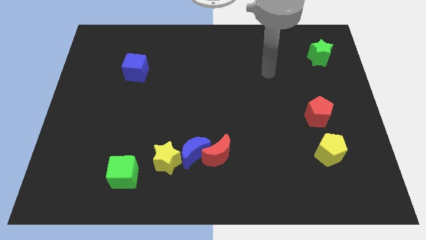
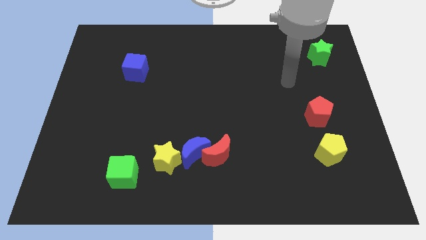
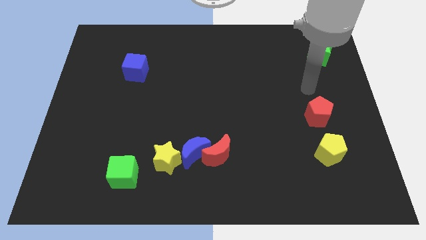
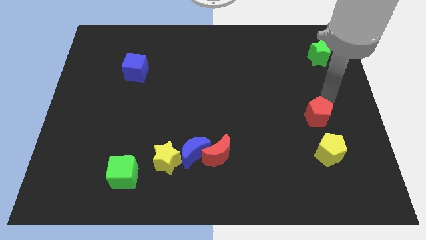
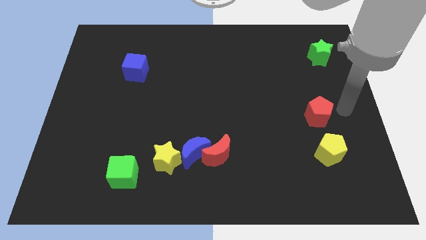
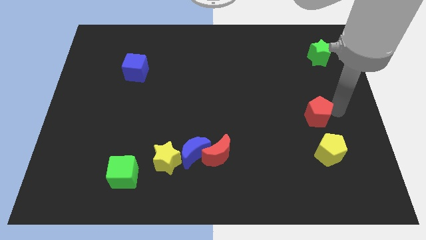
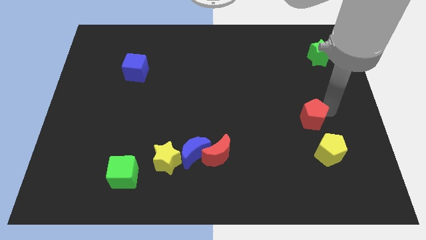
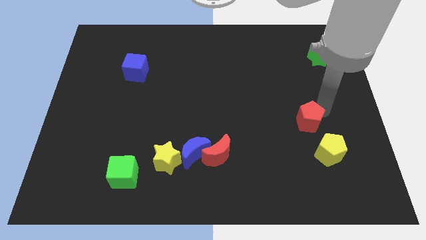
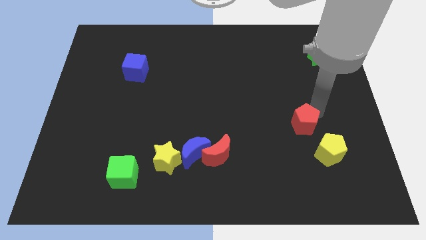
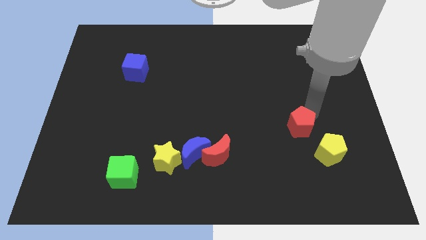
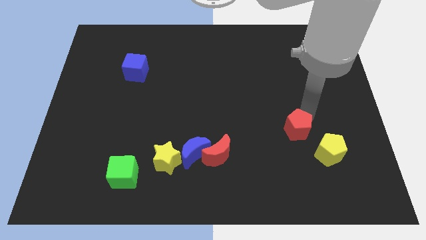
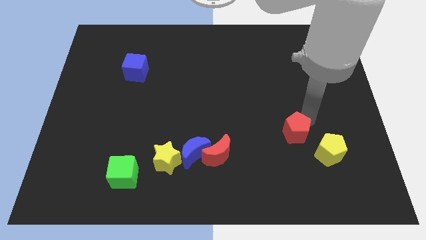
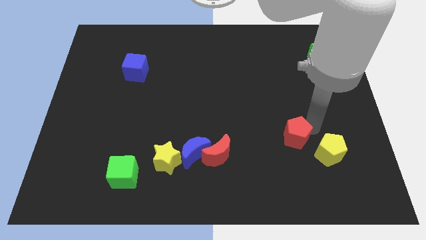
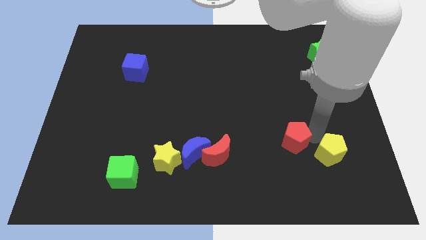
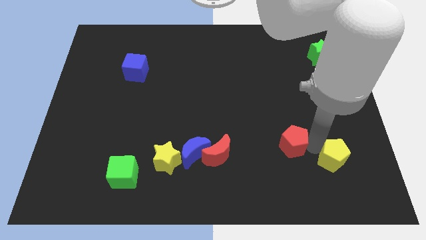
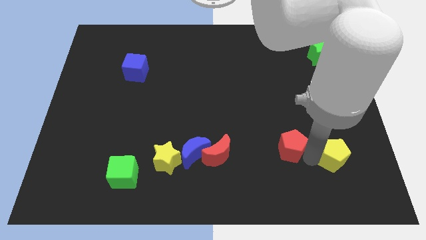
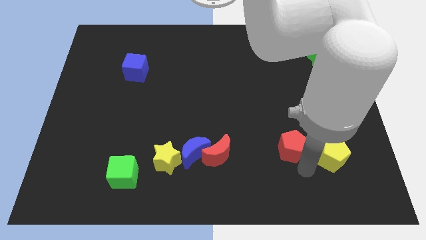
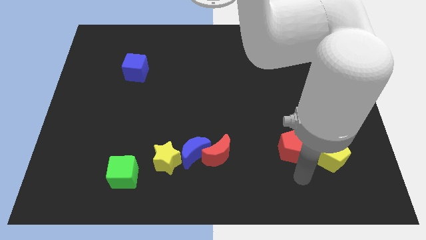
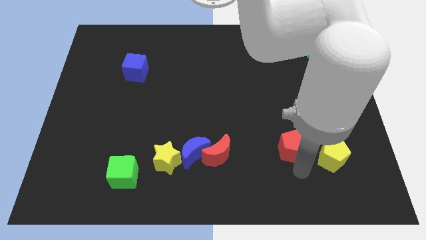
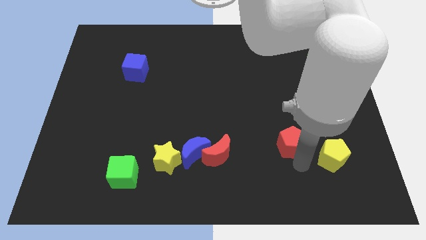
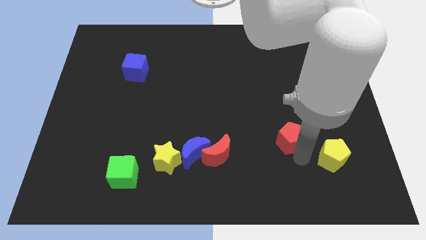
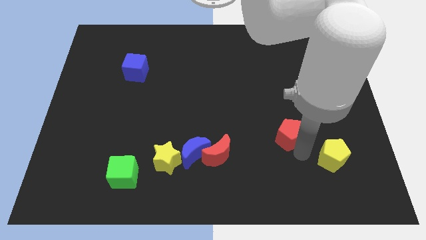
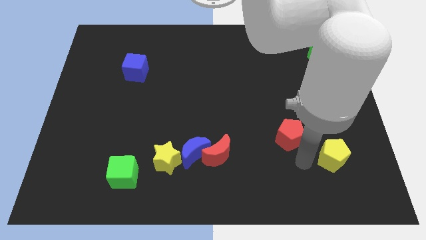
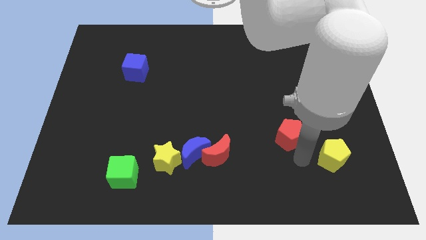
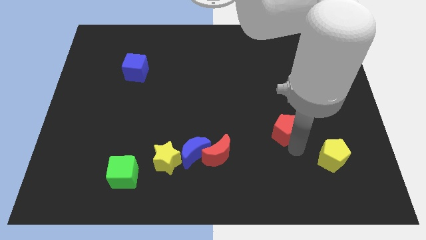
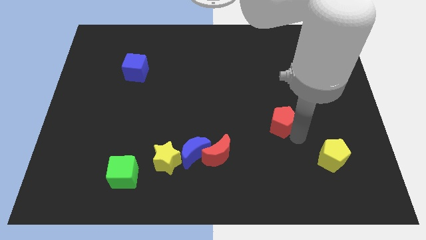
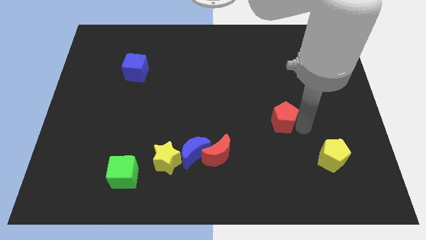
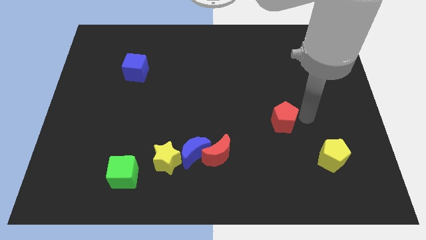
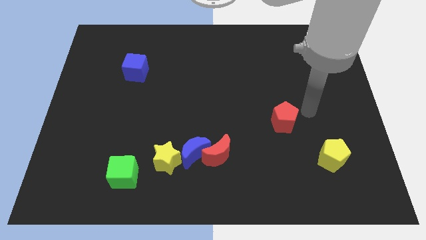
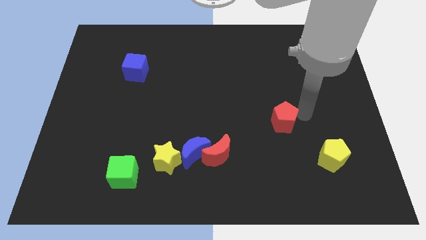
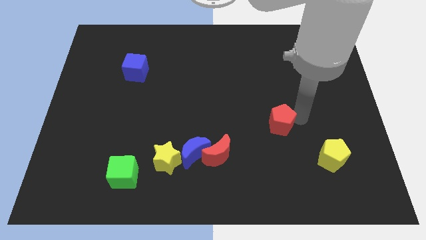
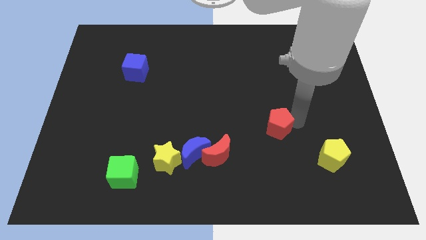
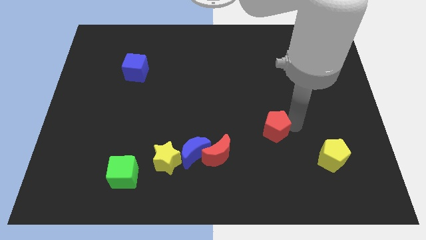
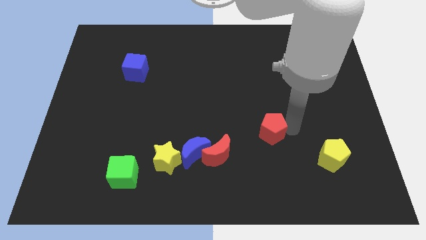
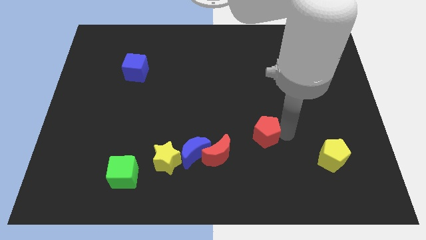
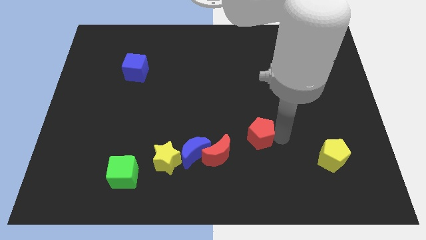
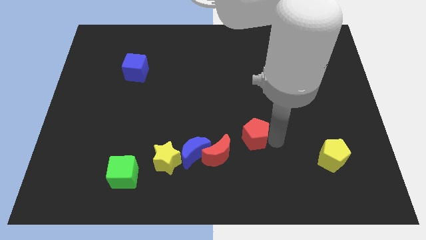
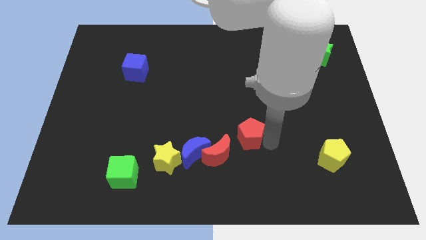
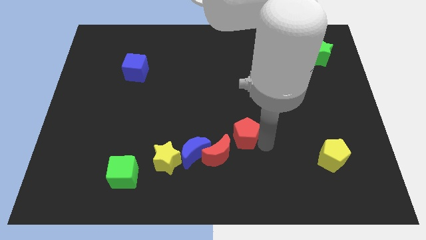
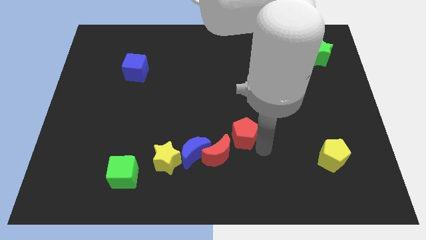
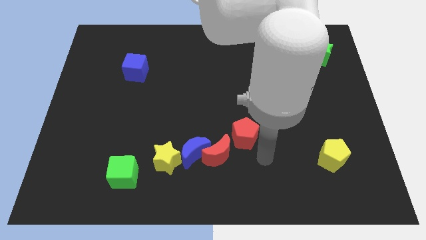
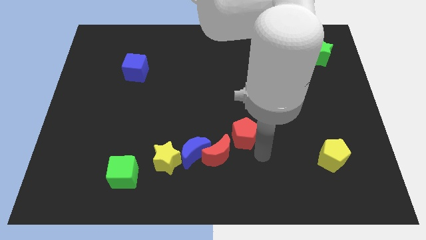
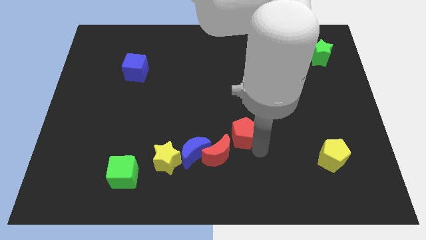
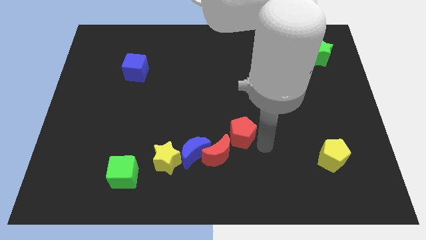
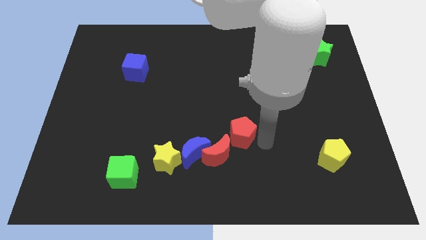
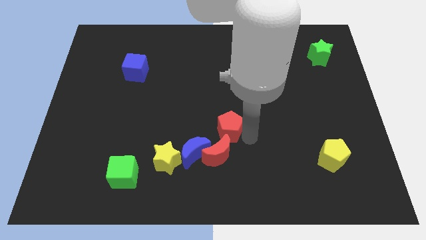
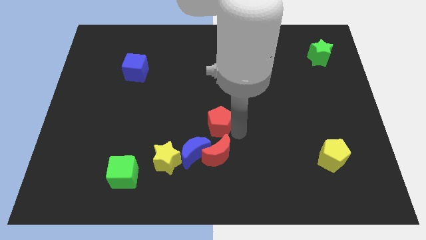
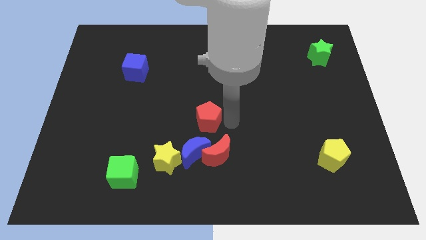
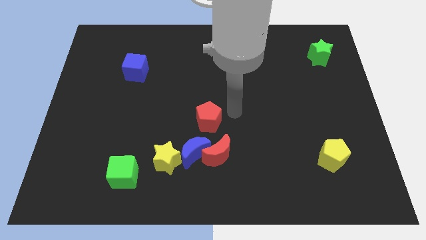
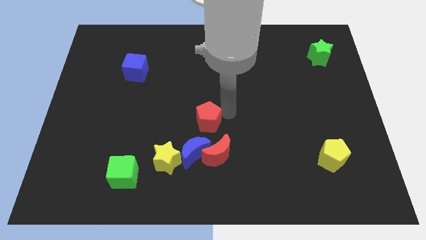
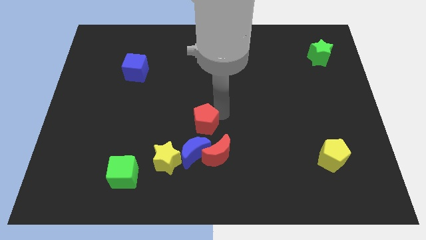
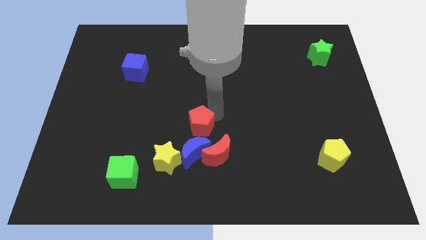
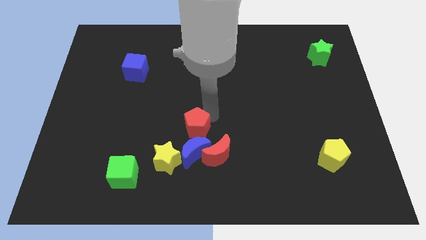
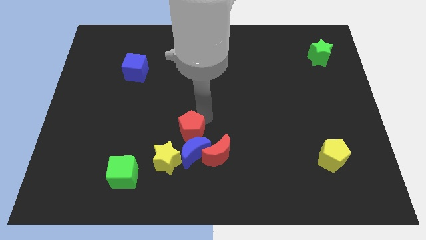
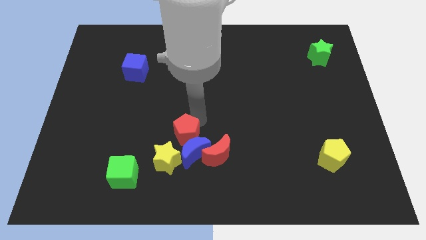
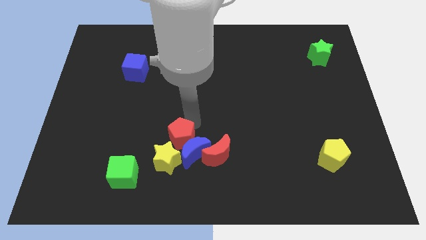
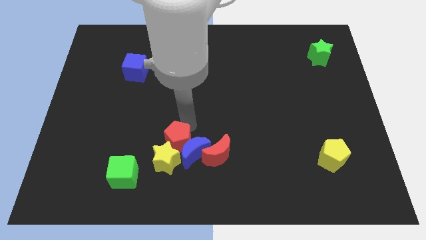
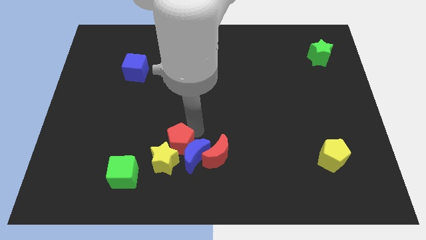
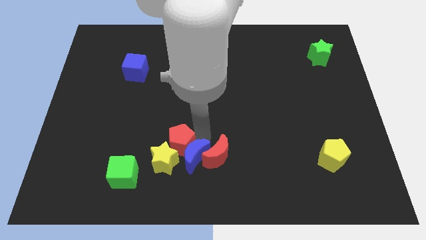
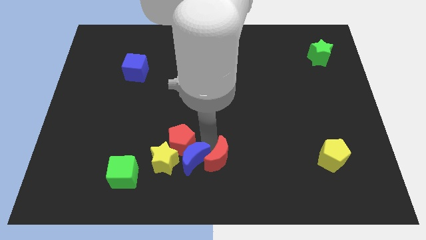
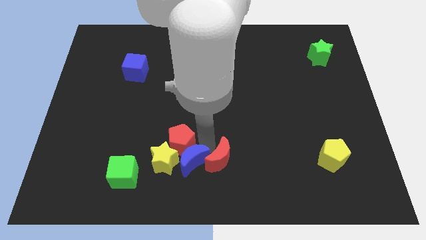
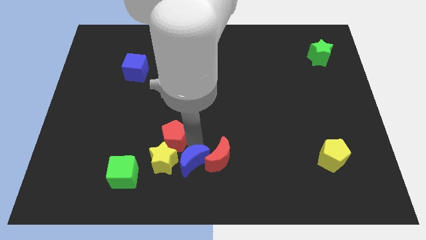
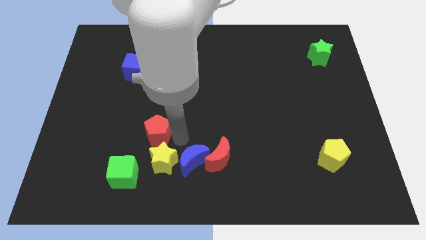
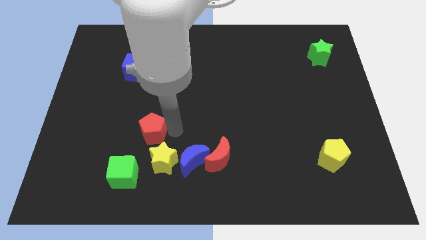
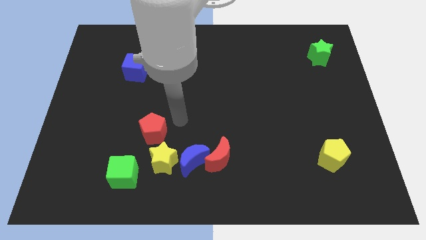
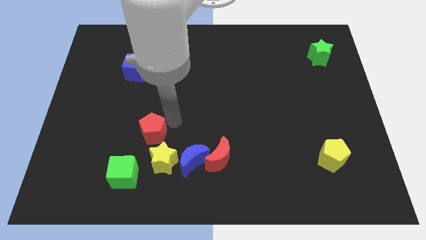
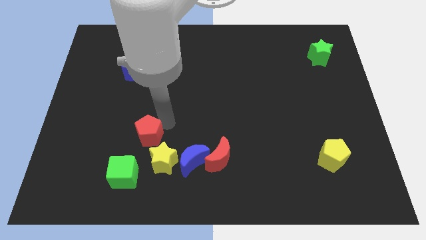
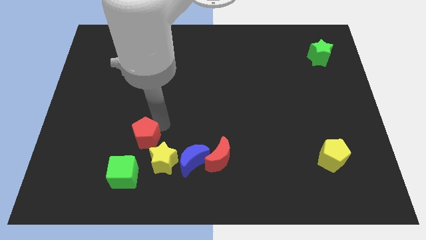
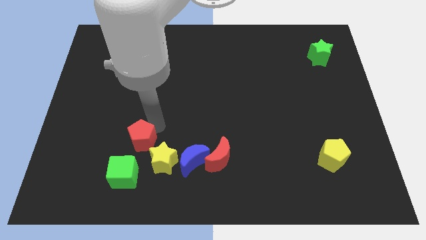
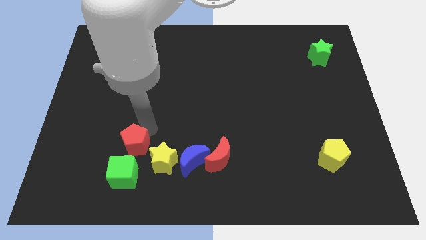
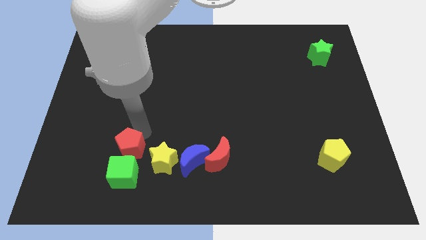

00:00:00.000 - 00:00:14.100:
put the red pentagon to the top left side of the green cube
